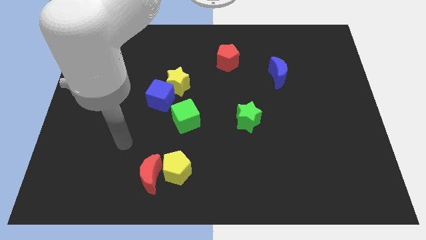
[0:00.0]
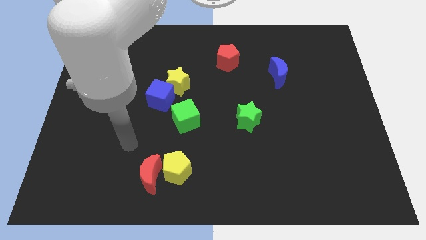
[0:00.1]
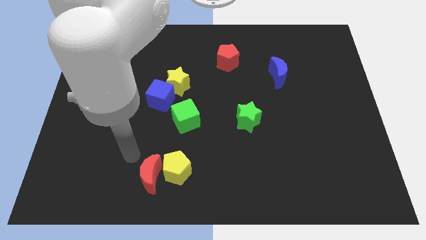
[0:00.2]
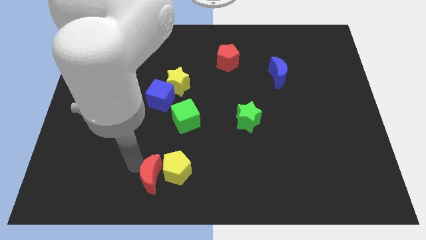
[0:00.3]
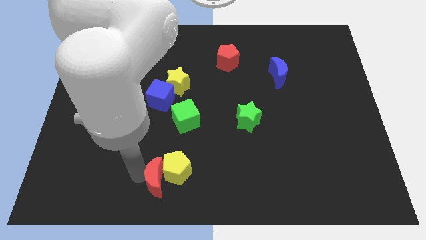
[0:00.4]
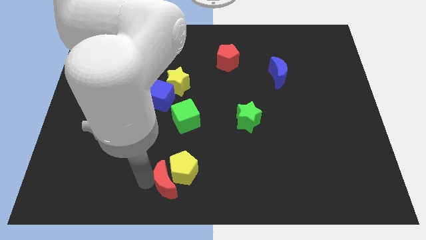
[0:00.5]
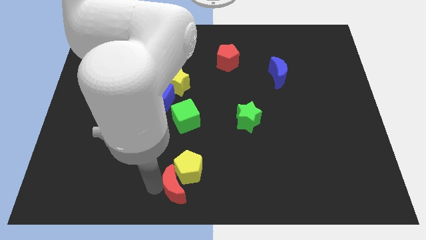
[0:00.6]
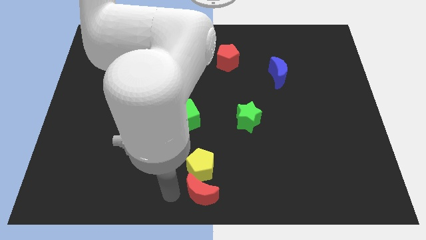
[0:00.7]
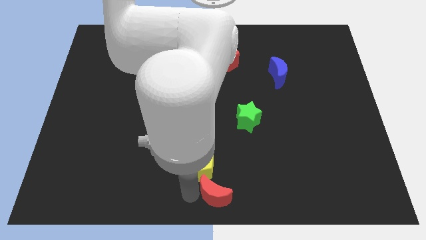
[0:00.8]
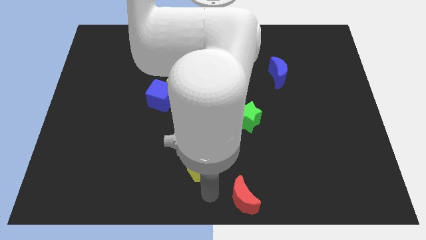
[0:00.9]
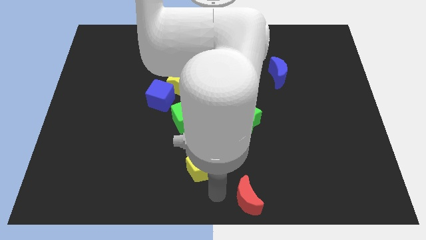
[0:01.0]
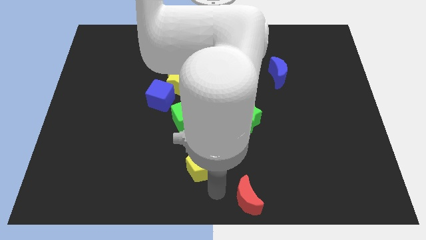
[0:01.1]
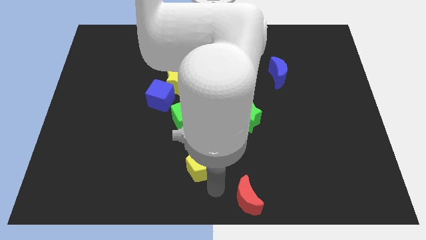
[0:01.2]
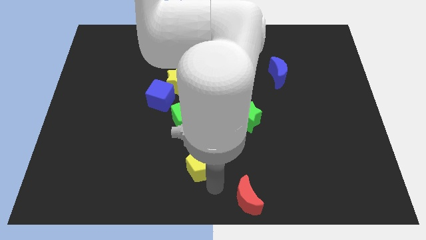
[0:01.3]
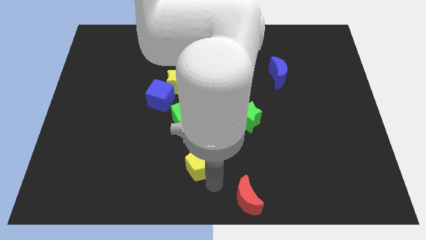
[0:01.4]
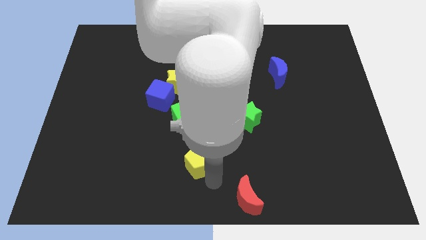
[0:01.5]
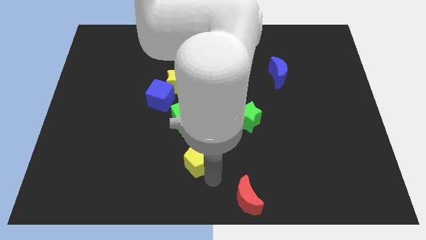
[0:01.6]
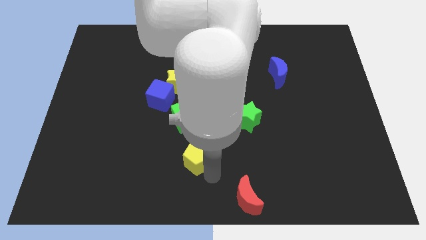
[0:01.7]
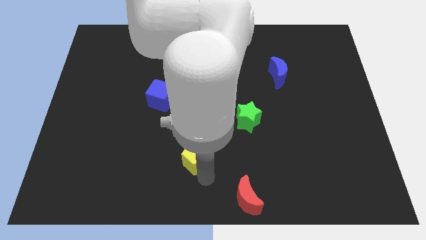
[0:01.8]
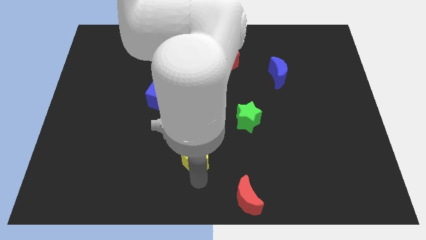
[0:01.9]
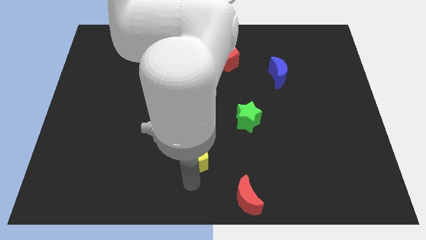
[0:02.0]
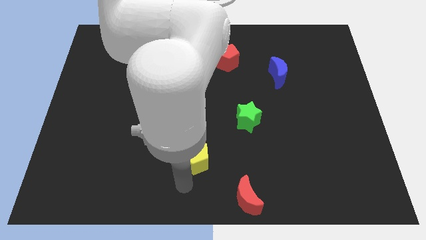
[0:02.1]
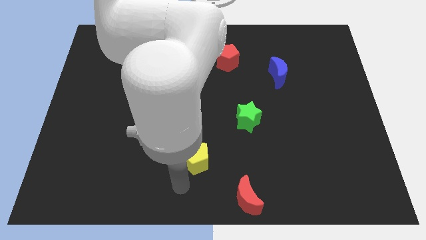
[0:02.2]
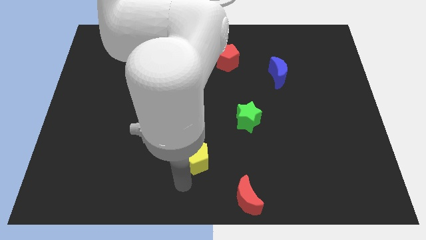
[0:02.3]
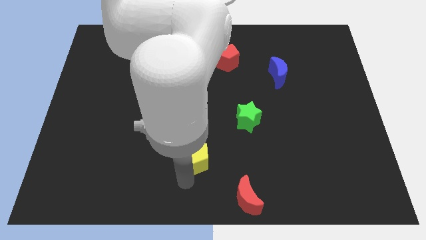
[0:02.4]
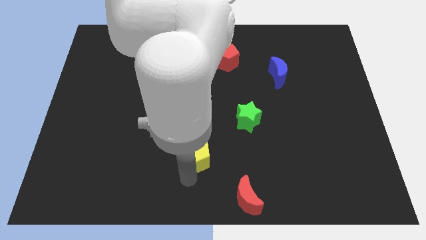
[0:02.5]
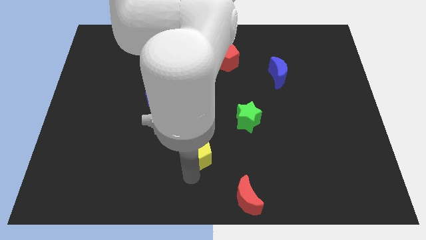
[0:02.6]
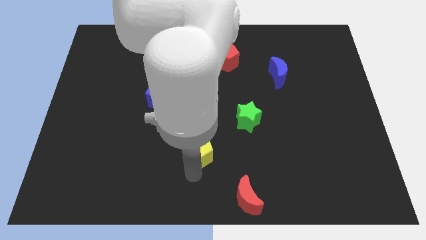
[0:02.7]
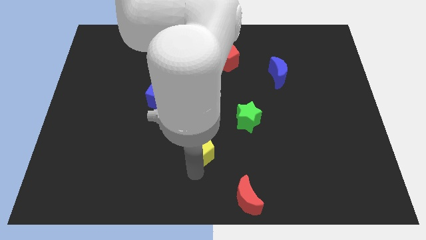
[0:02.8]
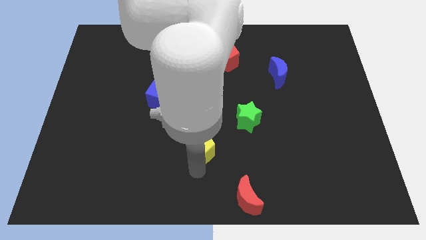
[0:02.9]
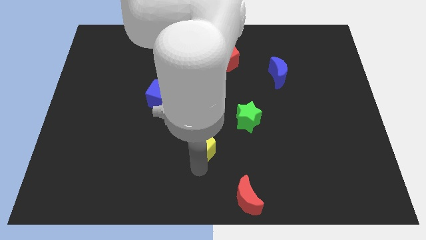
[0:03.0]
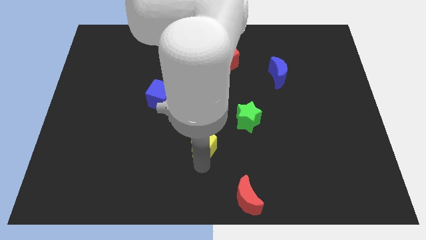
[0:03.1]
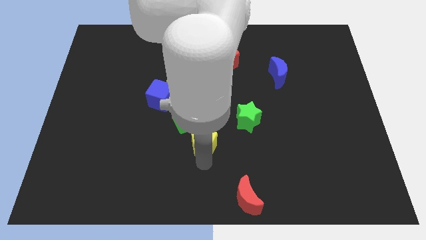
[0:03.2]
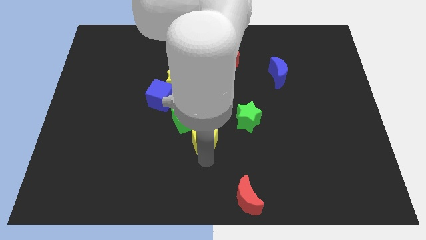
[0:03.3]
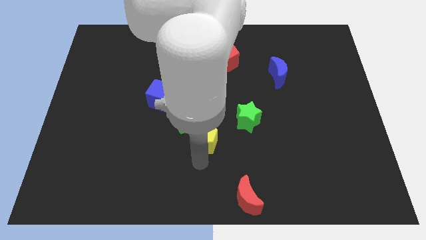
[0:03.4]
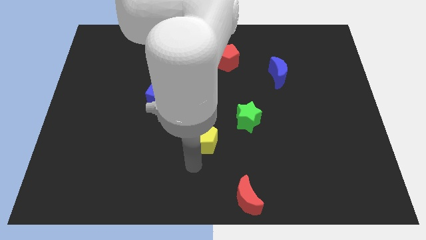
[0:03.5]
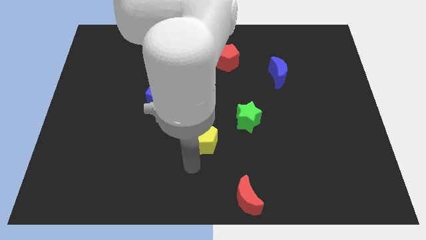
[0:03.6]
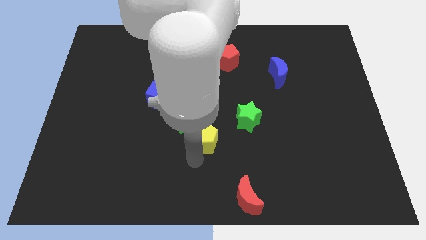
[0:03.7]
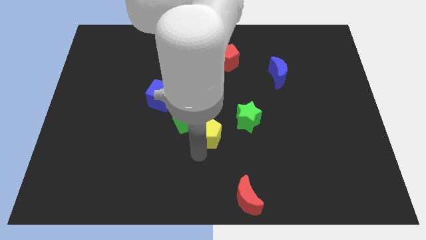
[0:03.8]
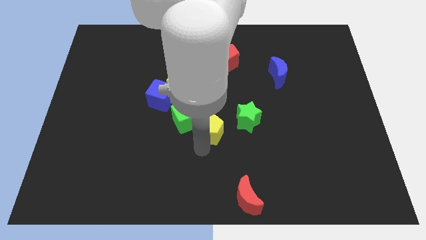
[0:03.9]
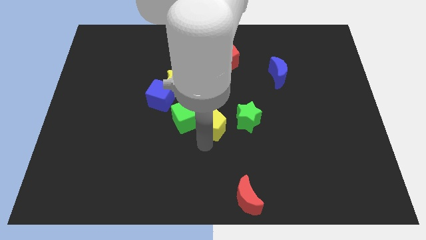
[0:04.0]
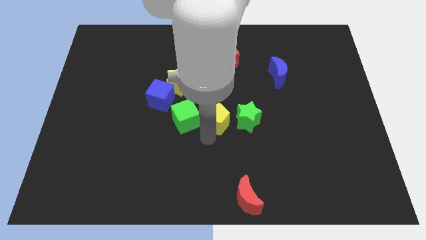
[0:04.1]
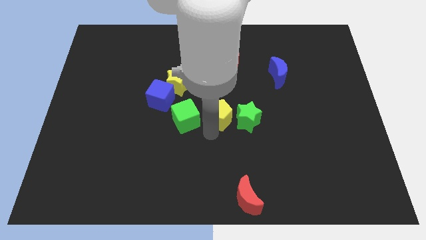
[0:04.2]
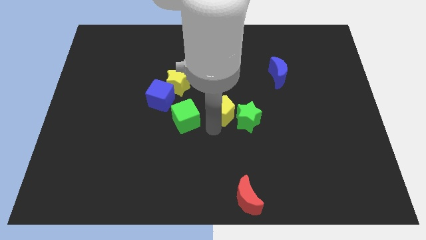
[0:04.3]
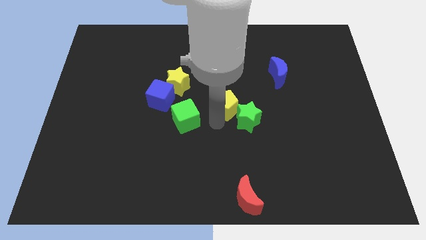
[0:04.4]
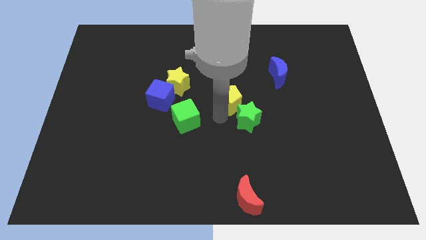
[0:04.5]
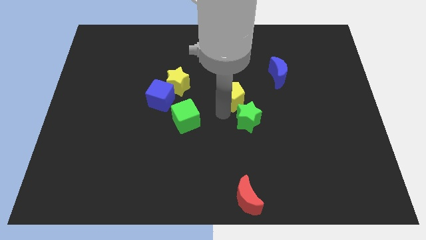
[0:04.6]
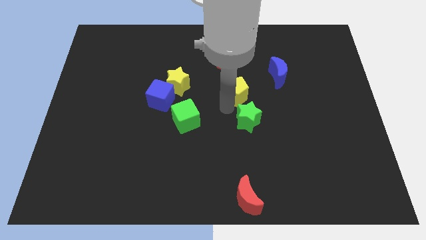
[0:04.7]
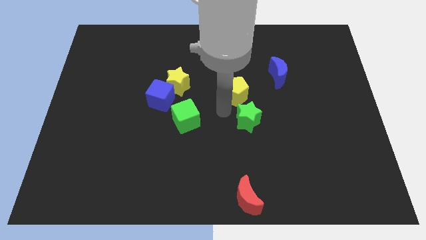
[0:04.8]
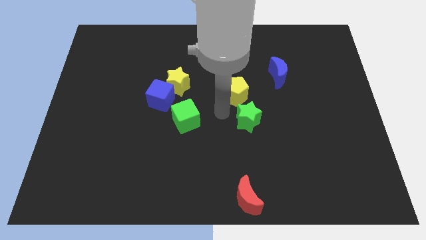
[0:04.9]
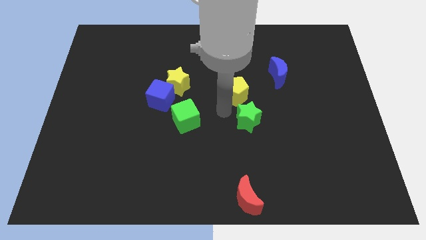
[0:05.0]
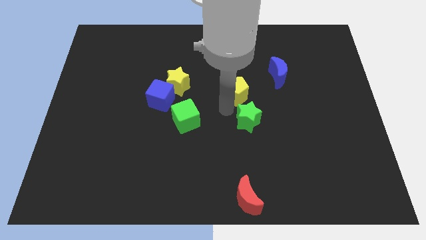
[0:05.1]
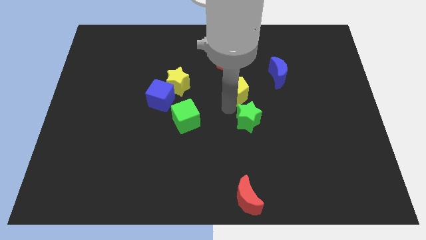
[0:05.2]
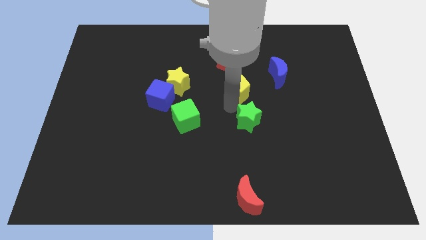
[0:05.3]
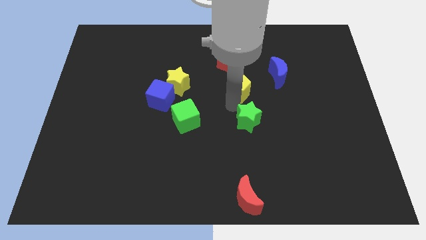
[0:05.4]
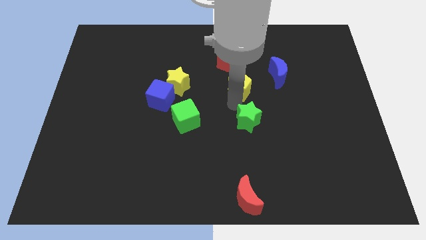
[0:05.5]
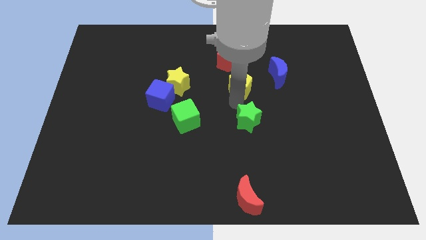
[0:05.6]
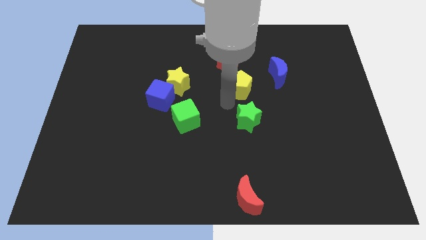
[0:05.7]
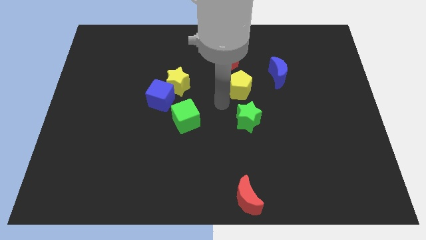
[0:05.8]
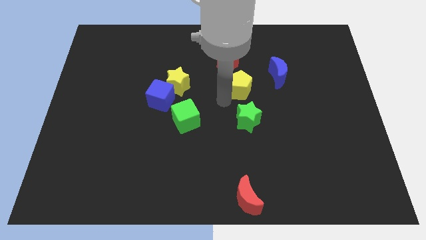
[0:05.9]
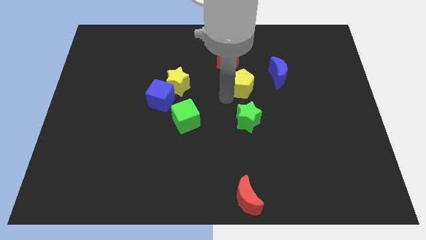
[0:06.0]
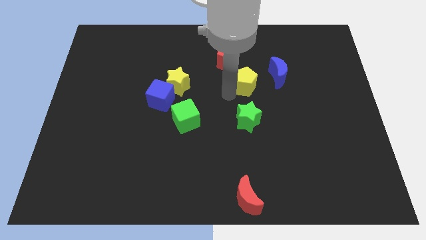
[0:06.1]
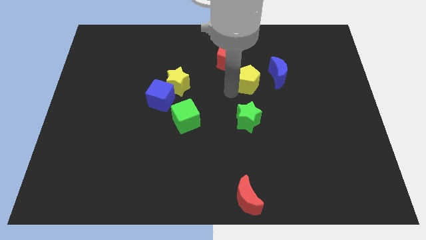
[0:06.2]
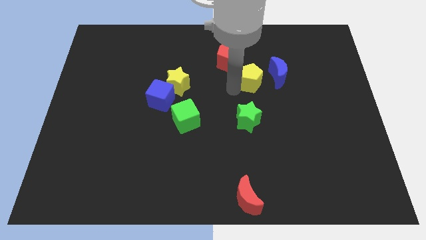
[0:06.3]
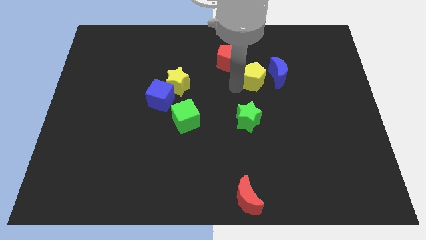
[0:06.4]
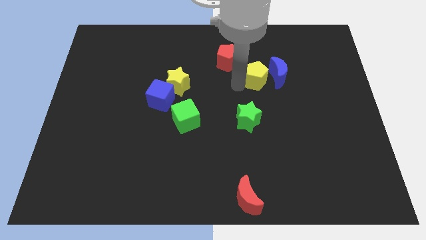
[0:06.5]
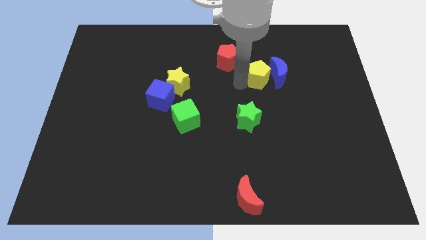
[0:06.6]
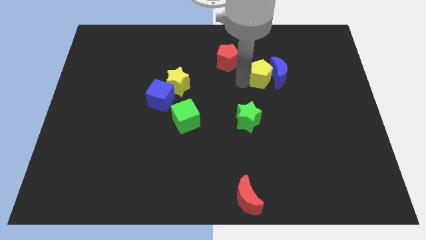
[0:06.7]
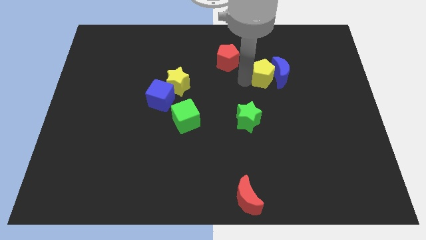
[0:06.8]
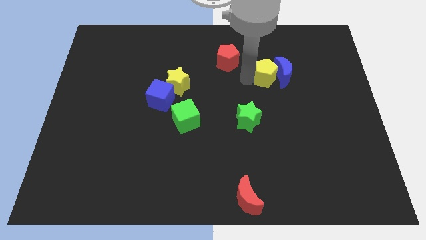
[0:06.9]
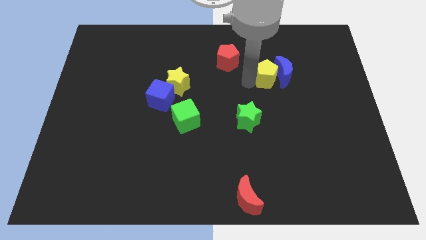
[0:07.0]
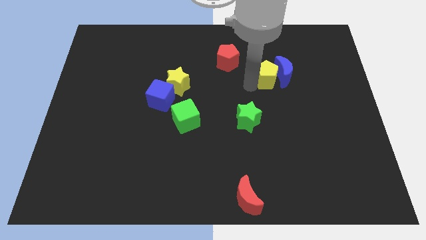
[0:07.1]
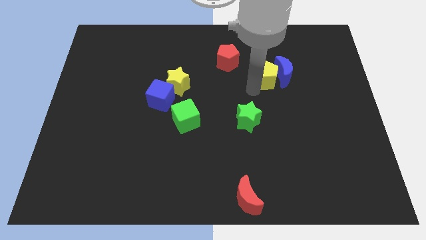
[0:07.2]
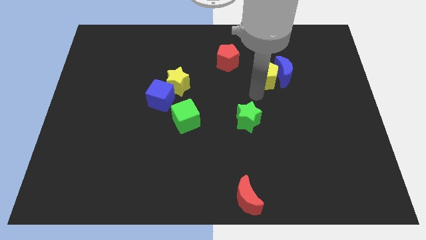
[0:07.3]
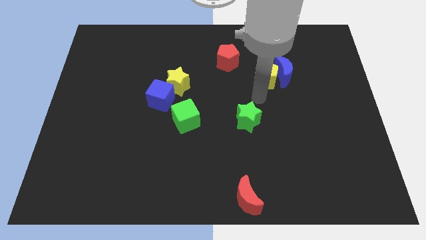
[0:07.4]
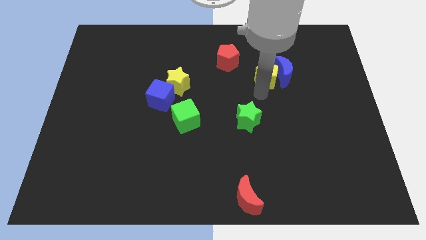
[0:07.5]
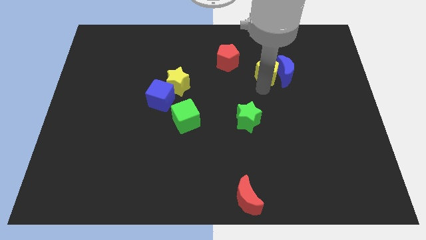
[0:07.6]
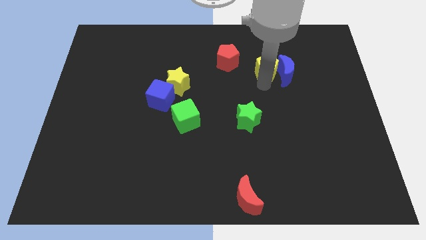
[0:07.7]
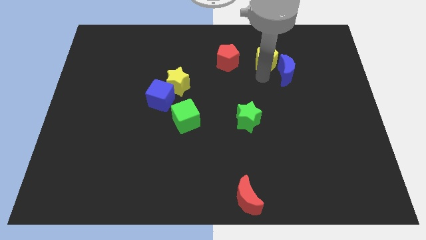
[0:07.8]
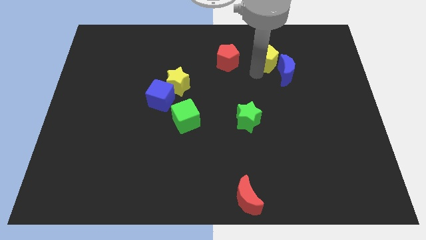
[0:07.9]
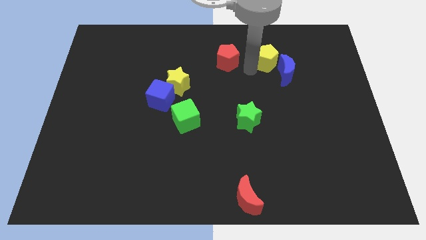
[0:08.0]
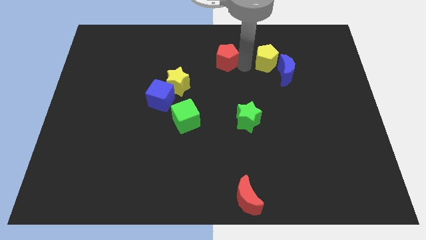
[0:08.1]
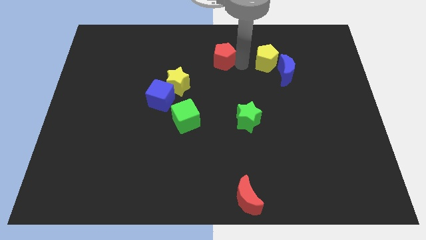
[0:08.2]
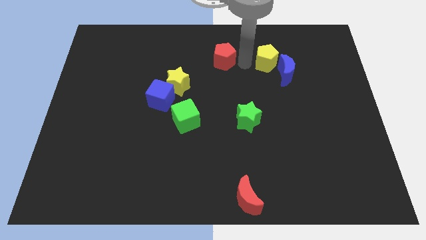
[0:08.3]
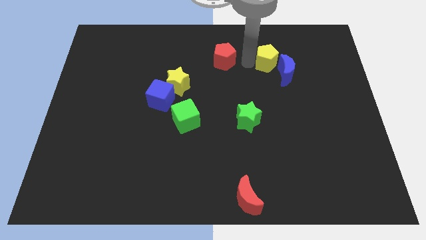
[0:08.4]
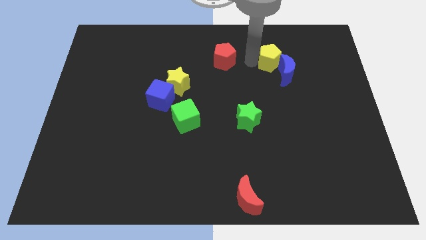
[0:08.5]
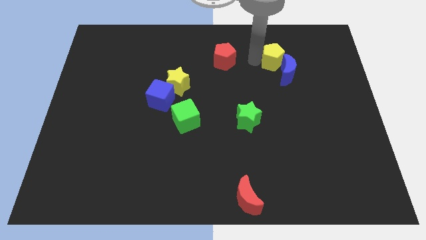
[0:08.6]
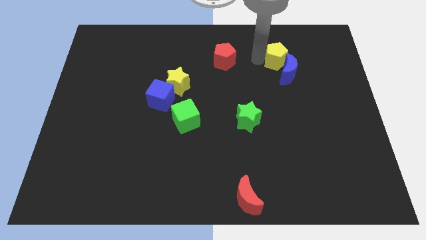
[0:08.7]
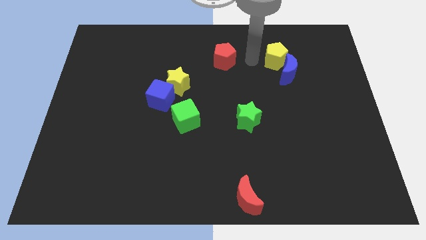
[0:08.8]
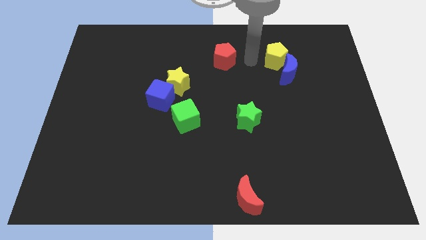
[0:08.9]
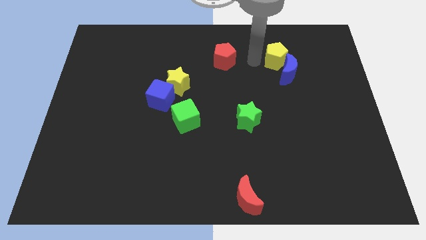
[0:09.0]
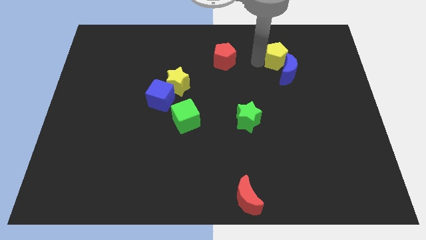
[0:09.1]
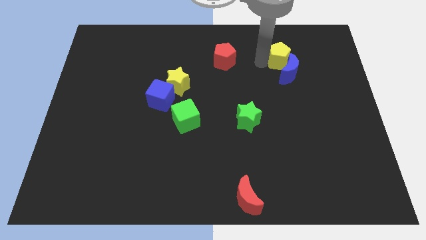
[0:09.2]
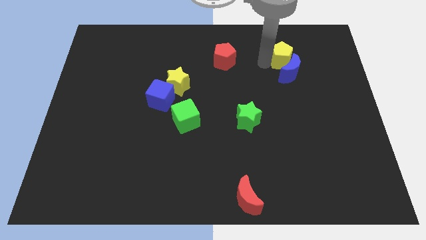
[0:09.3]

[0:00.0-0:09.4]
put the yellow pentagon diagonally up and to the right of the blue moon
